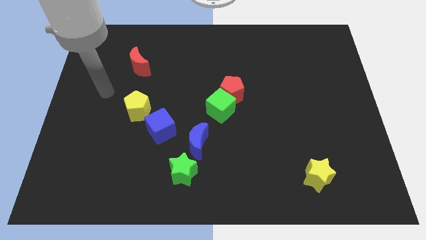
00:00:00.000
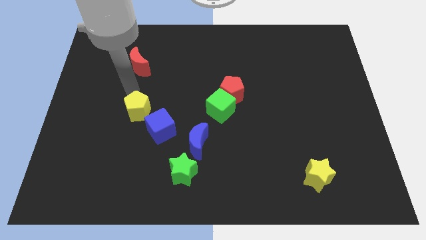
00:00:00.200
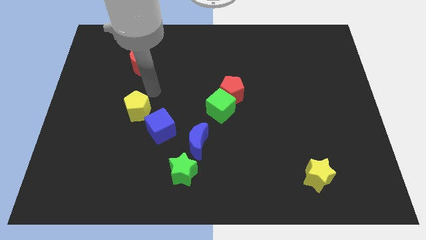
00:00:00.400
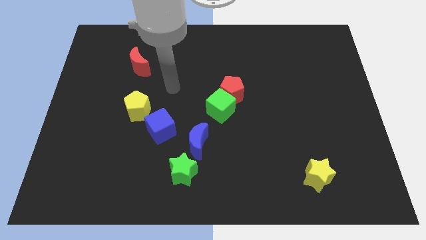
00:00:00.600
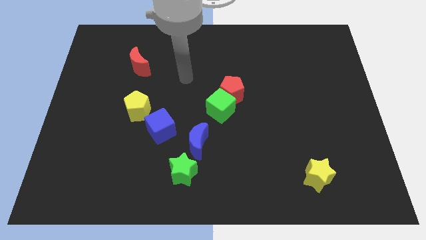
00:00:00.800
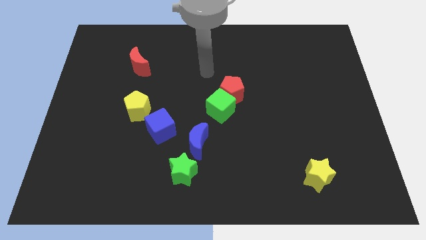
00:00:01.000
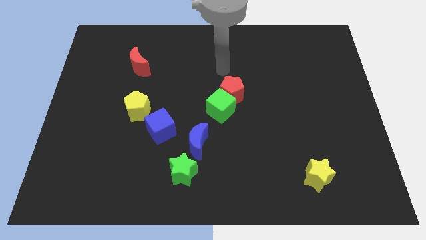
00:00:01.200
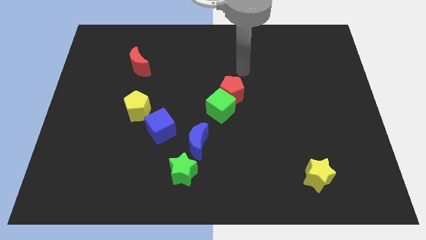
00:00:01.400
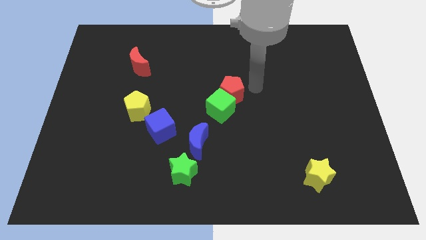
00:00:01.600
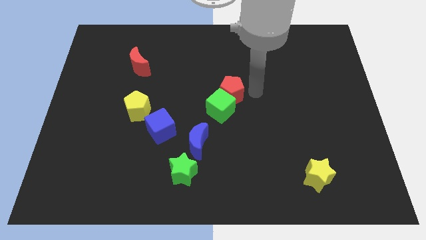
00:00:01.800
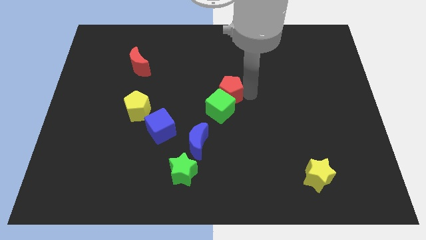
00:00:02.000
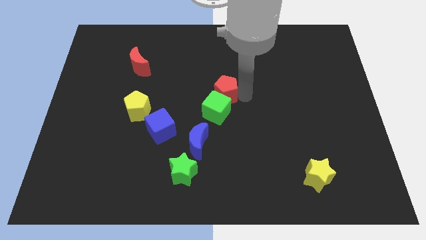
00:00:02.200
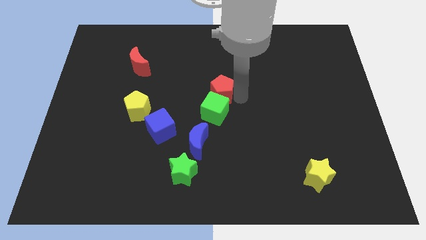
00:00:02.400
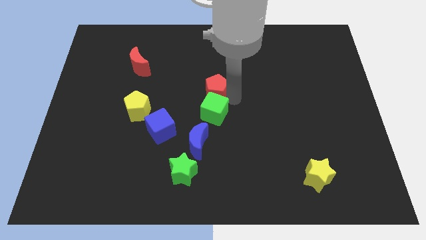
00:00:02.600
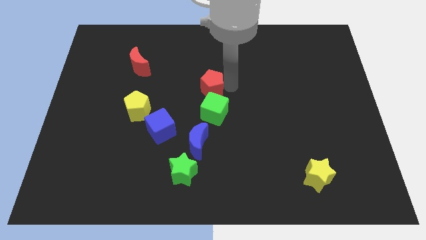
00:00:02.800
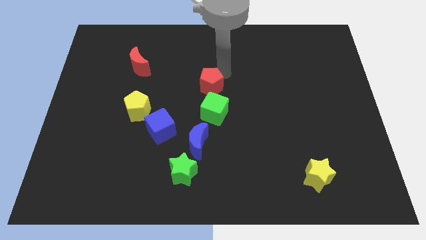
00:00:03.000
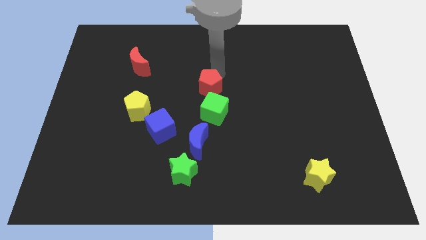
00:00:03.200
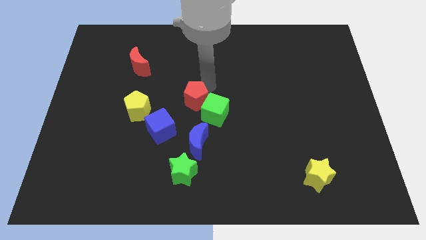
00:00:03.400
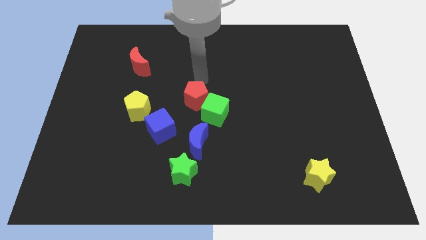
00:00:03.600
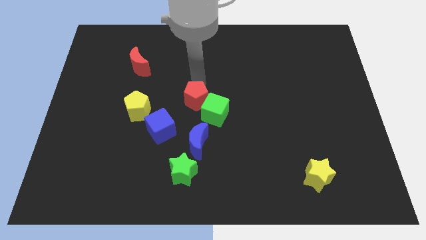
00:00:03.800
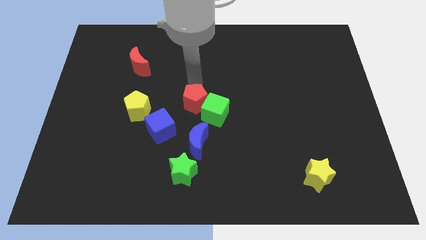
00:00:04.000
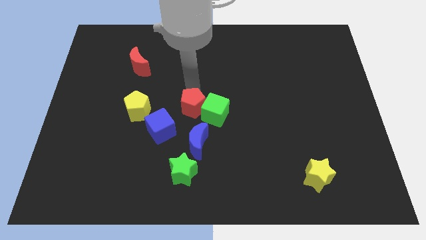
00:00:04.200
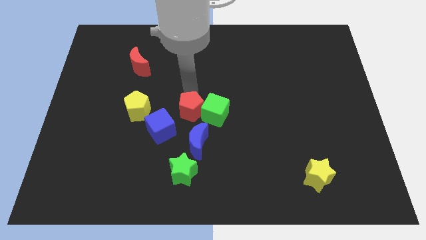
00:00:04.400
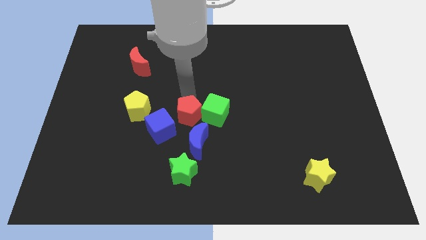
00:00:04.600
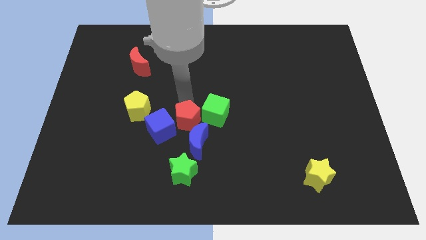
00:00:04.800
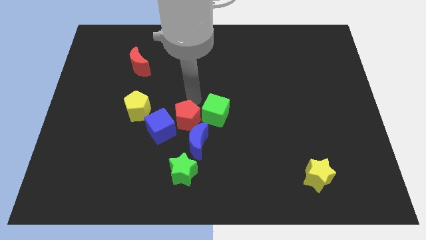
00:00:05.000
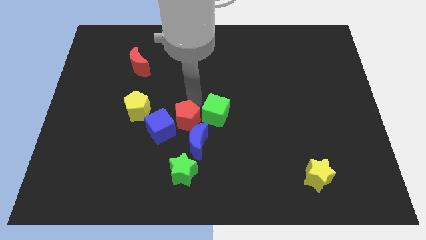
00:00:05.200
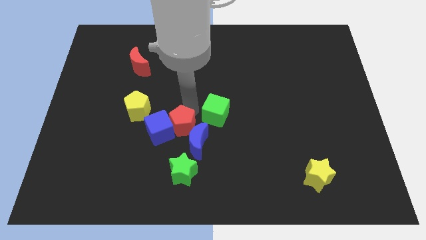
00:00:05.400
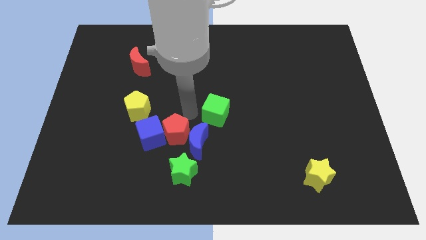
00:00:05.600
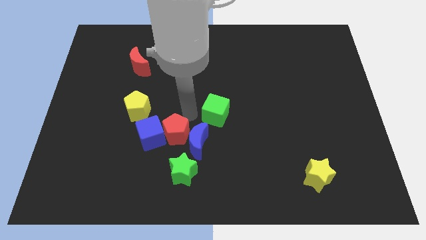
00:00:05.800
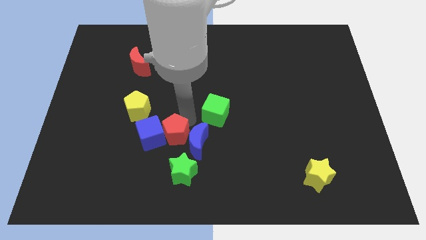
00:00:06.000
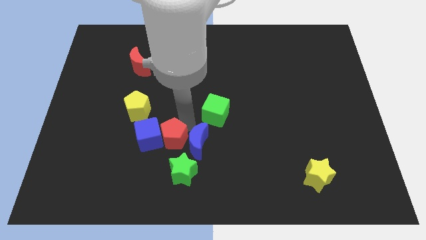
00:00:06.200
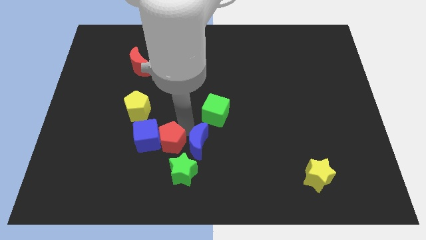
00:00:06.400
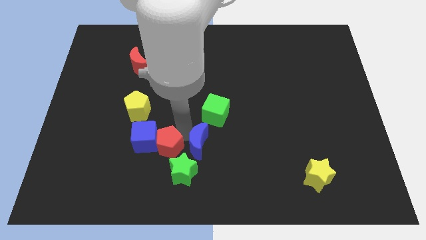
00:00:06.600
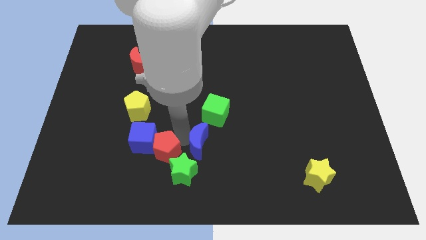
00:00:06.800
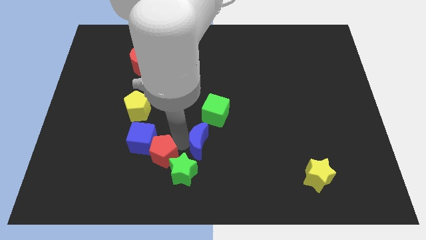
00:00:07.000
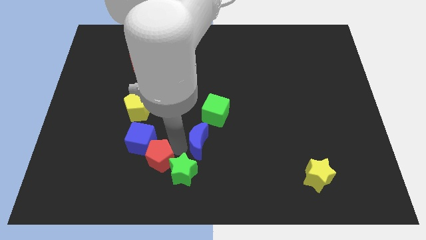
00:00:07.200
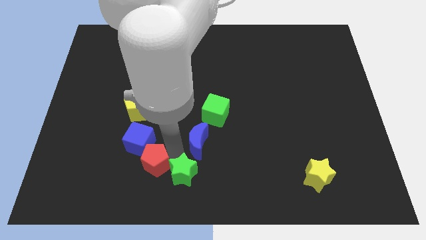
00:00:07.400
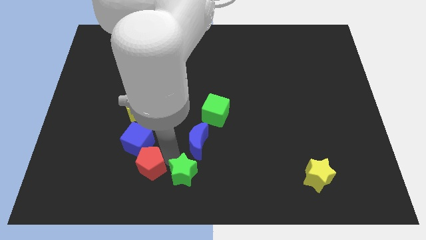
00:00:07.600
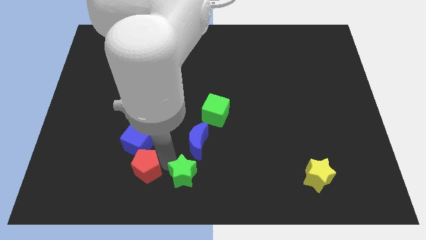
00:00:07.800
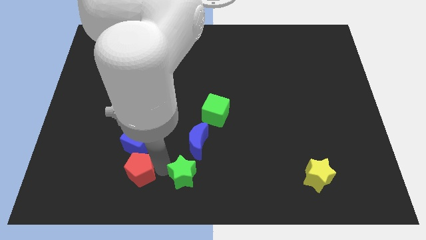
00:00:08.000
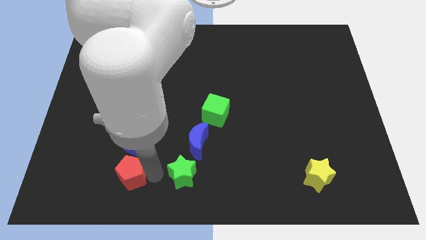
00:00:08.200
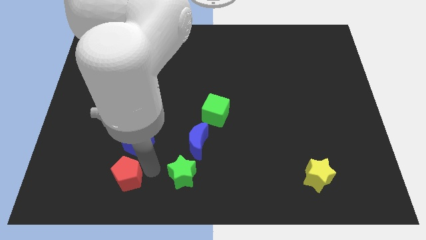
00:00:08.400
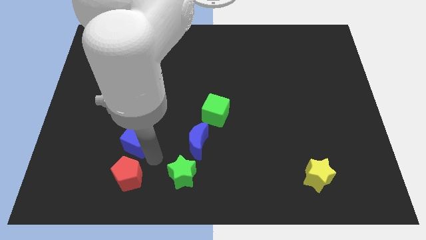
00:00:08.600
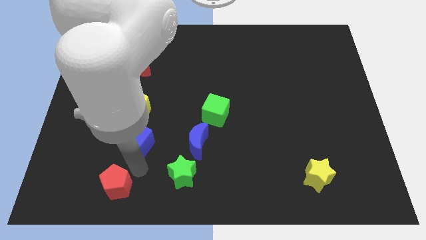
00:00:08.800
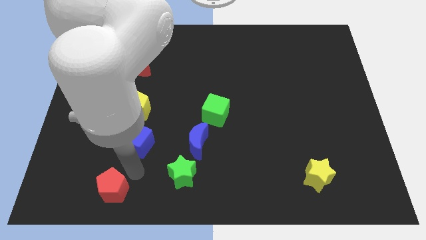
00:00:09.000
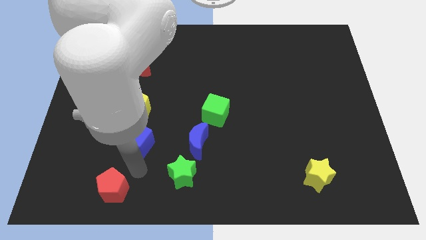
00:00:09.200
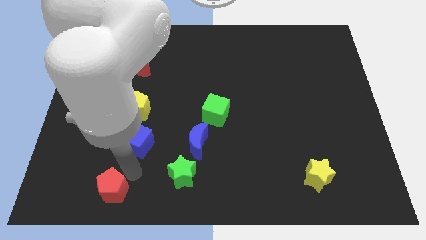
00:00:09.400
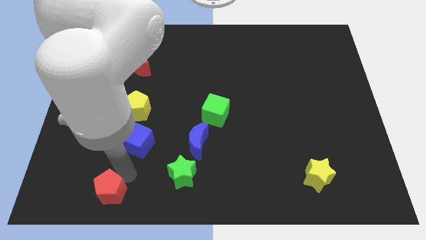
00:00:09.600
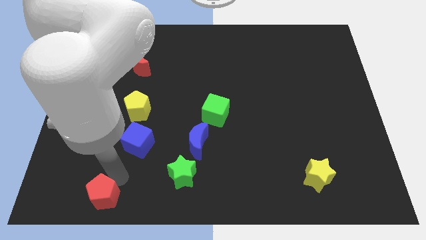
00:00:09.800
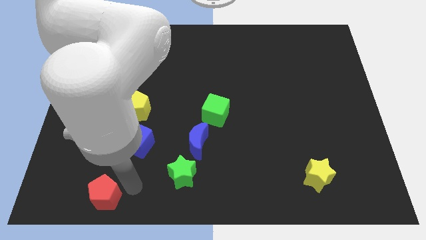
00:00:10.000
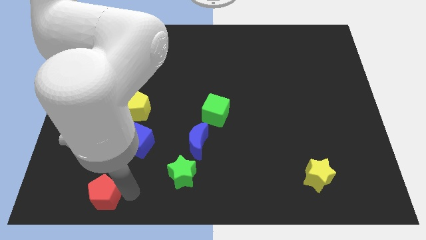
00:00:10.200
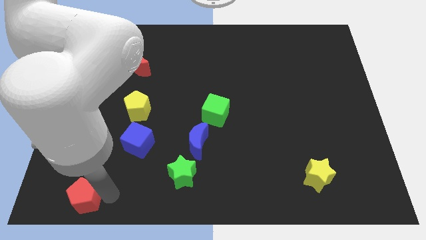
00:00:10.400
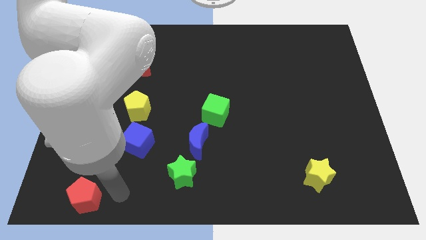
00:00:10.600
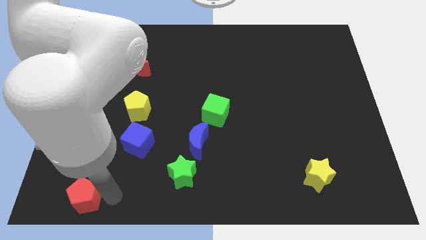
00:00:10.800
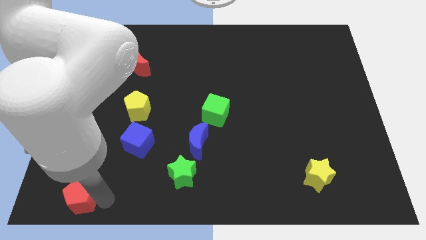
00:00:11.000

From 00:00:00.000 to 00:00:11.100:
move the red pentagon to the bottom left of the board

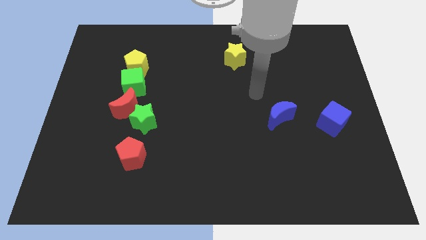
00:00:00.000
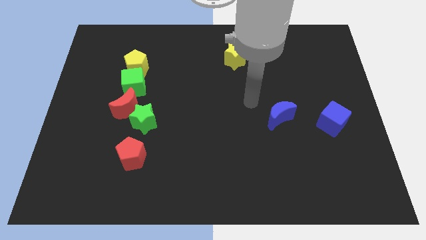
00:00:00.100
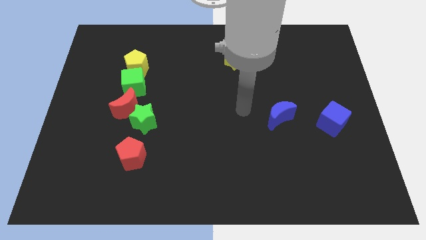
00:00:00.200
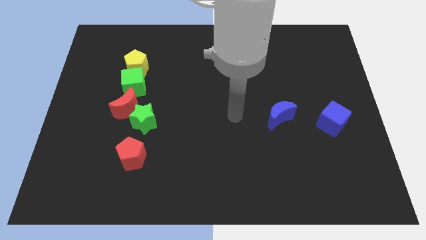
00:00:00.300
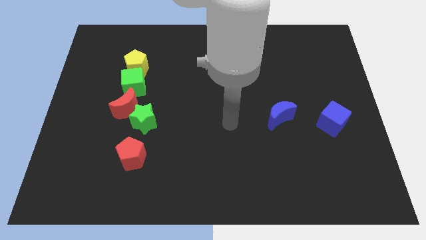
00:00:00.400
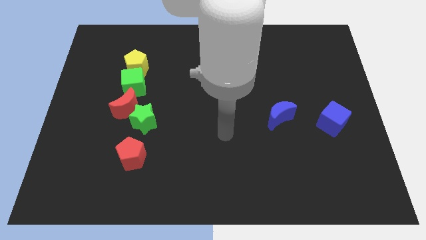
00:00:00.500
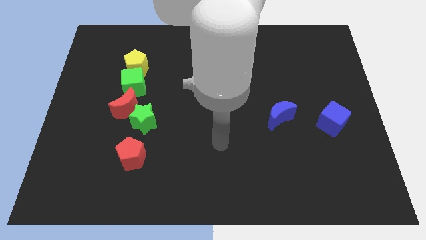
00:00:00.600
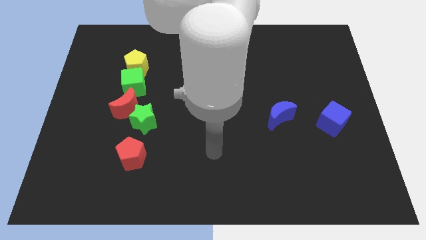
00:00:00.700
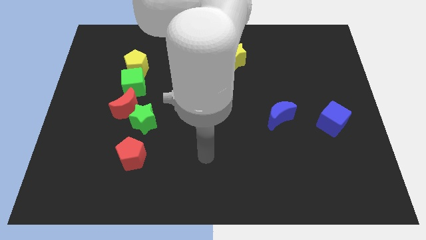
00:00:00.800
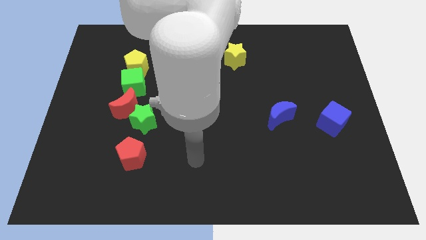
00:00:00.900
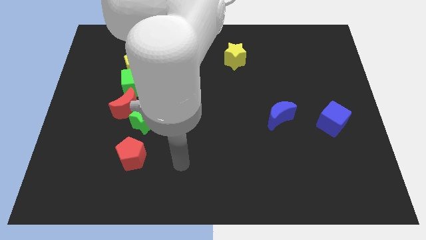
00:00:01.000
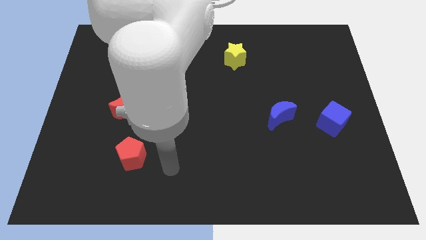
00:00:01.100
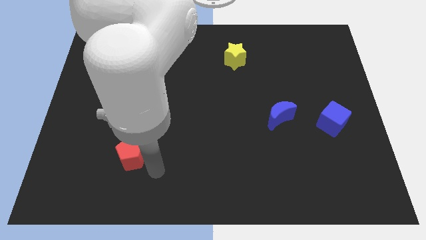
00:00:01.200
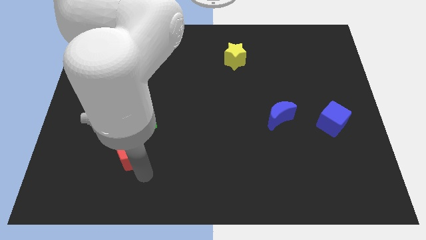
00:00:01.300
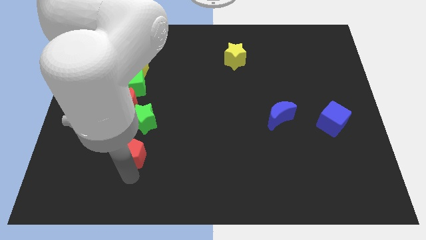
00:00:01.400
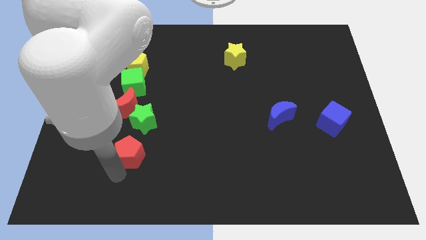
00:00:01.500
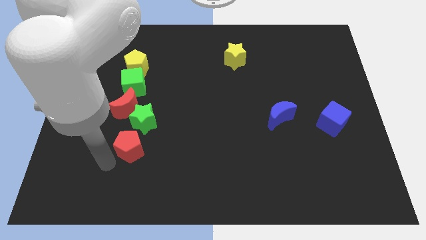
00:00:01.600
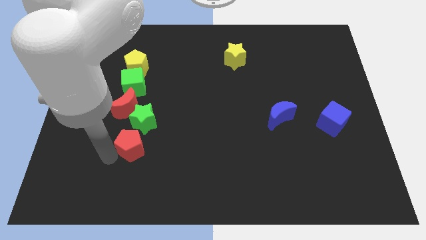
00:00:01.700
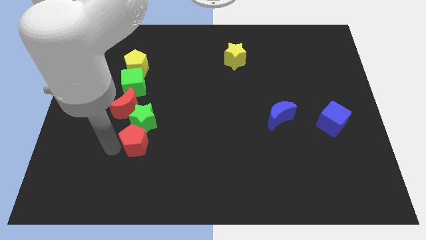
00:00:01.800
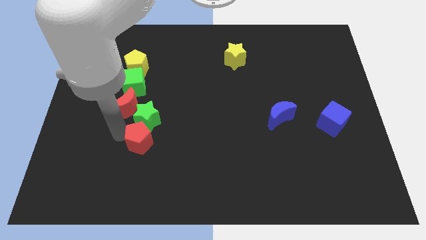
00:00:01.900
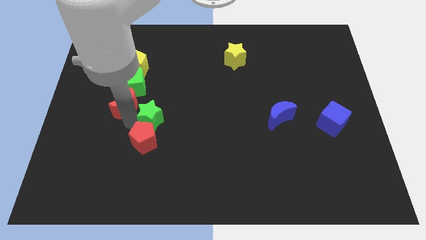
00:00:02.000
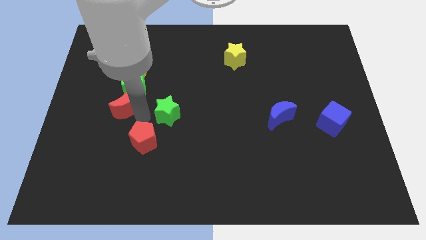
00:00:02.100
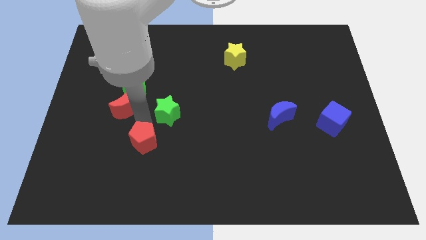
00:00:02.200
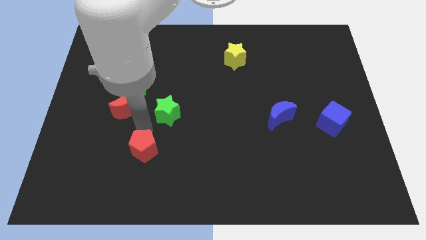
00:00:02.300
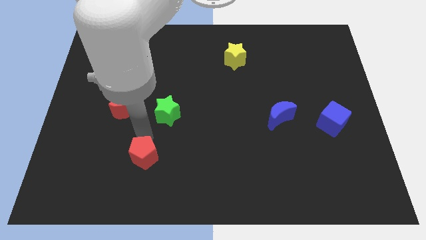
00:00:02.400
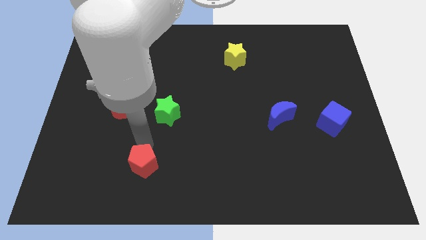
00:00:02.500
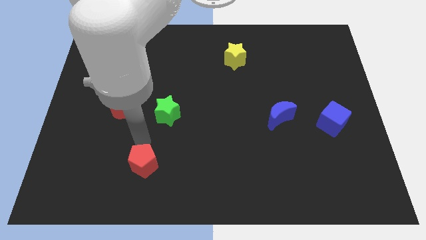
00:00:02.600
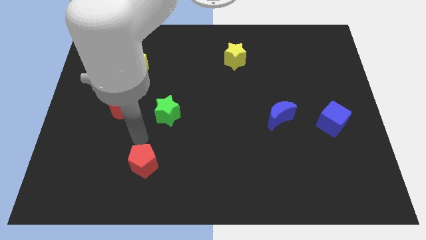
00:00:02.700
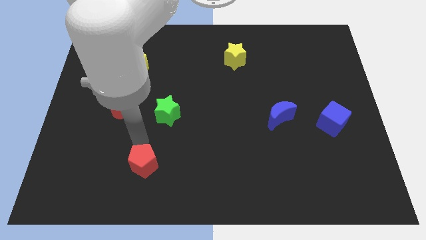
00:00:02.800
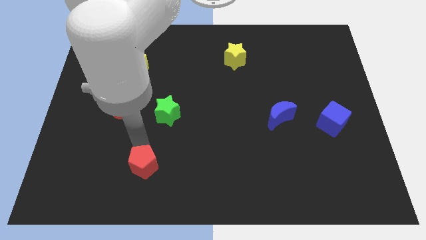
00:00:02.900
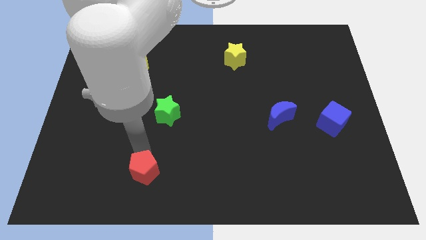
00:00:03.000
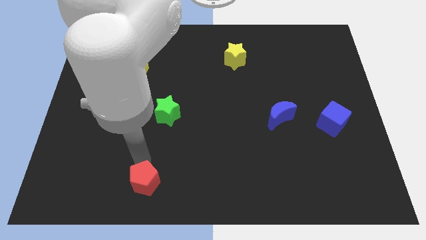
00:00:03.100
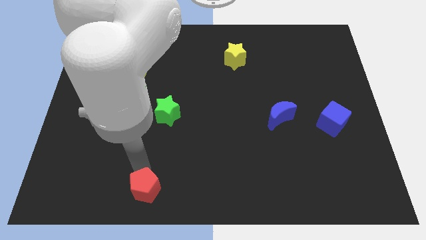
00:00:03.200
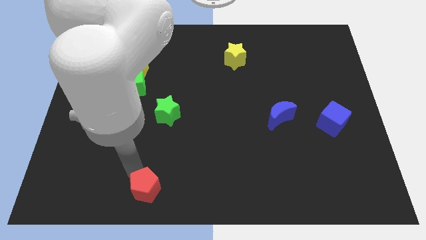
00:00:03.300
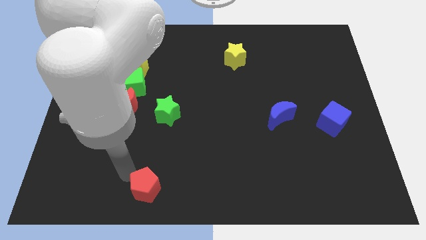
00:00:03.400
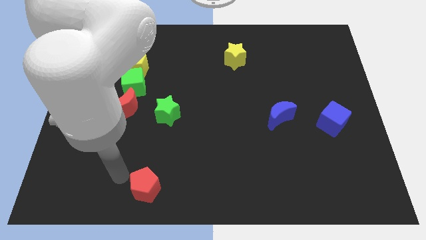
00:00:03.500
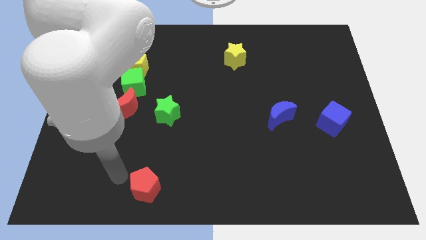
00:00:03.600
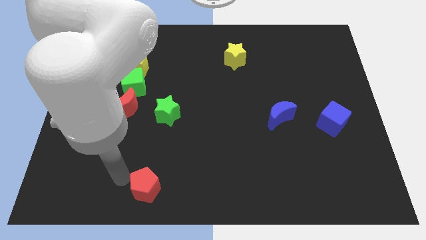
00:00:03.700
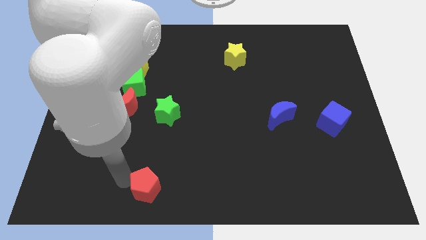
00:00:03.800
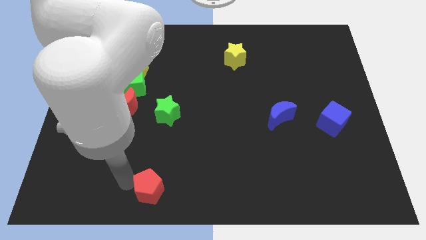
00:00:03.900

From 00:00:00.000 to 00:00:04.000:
slide the red pentagon to the bottom
